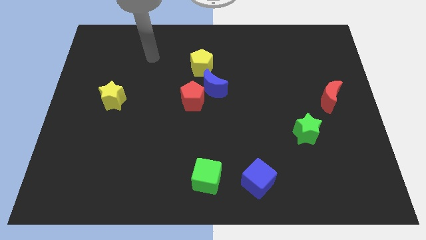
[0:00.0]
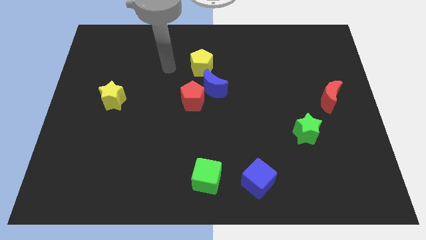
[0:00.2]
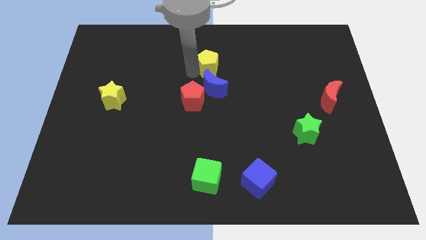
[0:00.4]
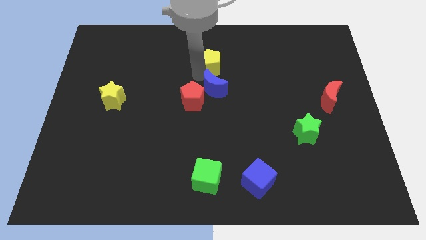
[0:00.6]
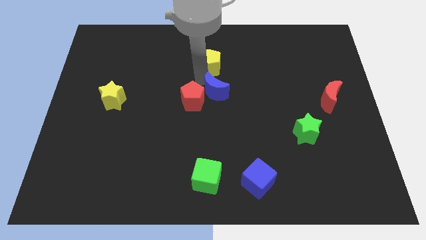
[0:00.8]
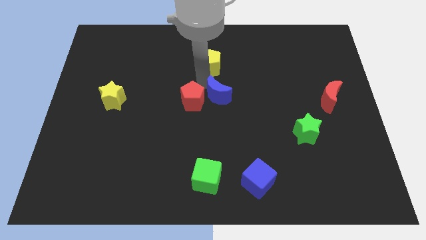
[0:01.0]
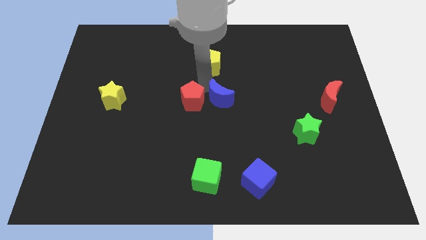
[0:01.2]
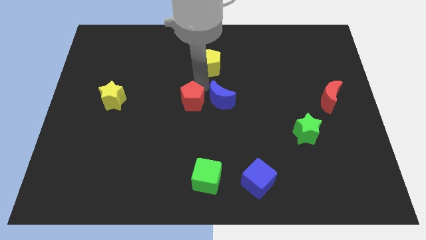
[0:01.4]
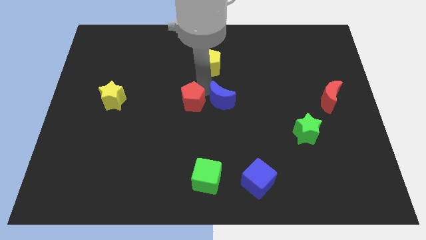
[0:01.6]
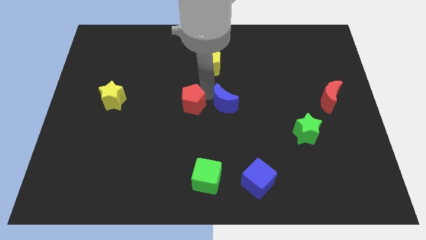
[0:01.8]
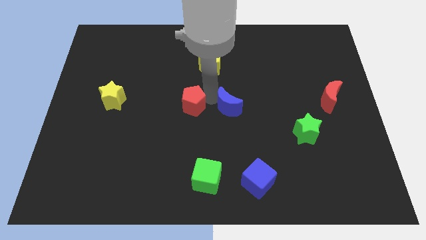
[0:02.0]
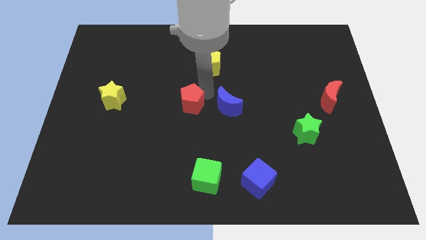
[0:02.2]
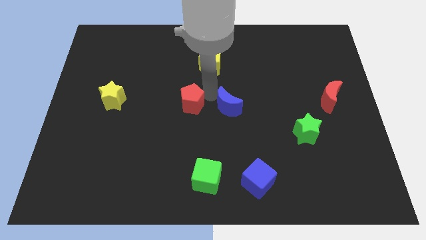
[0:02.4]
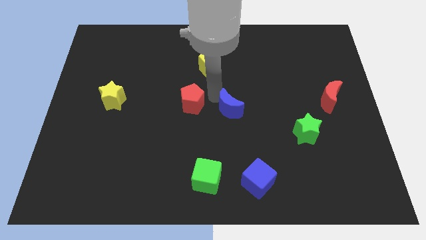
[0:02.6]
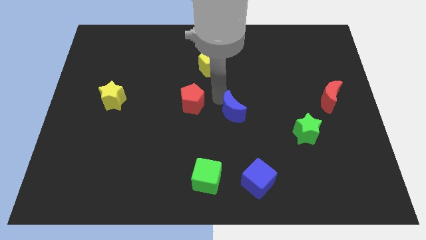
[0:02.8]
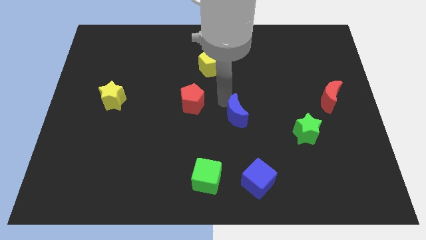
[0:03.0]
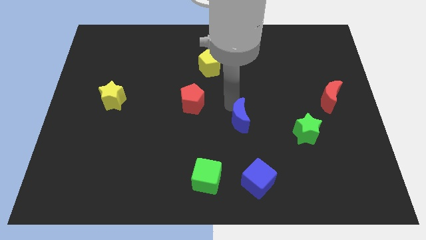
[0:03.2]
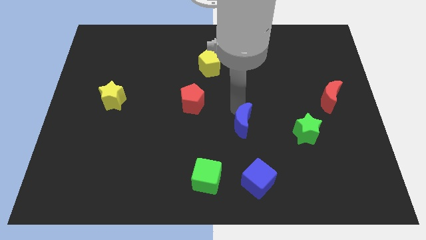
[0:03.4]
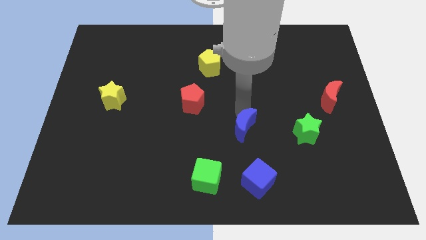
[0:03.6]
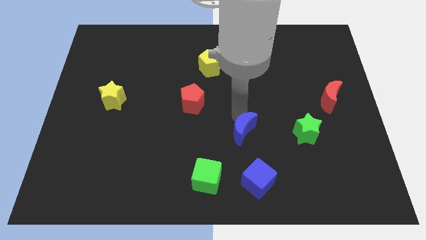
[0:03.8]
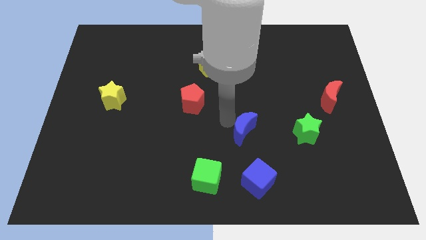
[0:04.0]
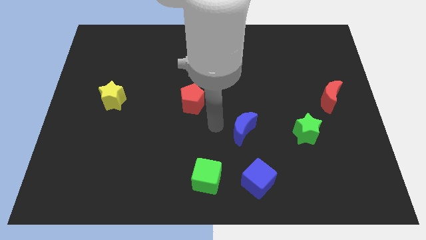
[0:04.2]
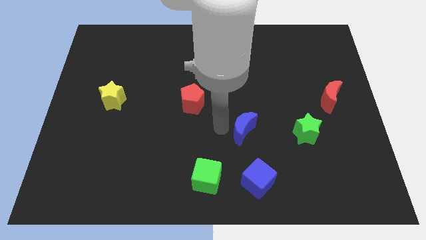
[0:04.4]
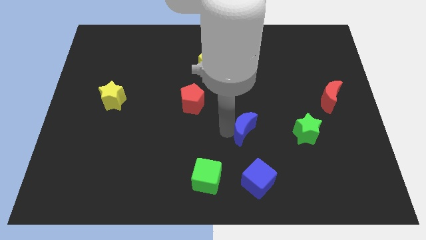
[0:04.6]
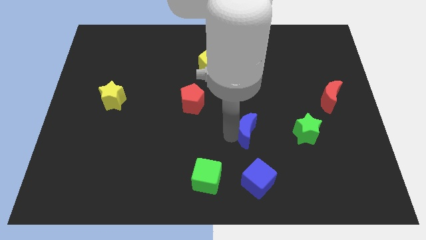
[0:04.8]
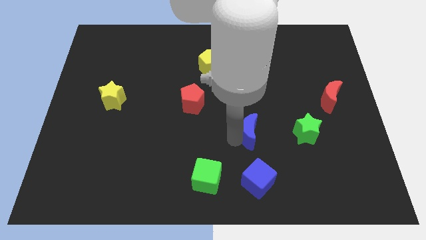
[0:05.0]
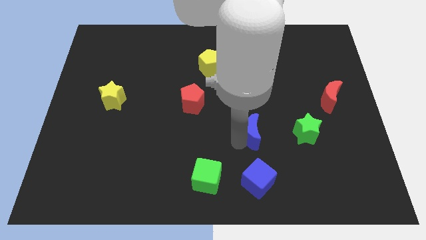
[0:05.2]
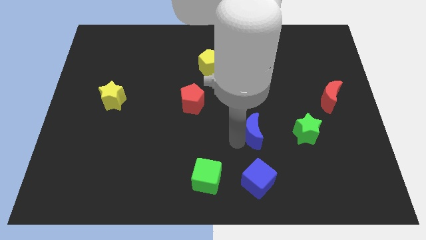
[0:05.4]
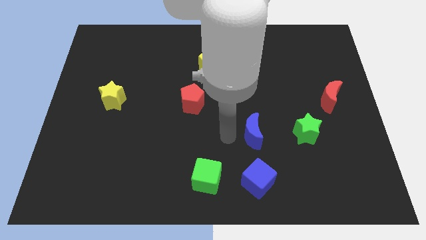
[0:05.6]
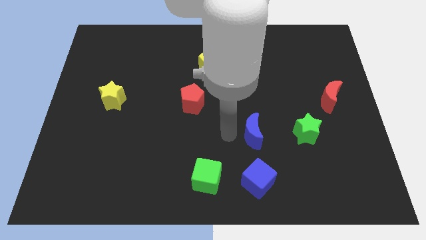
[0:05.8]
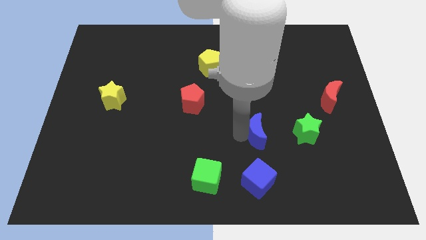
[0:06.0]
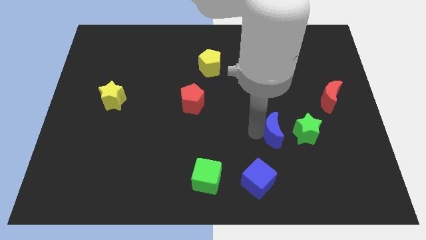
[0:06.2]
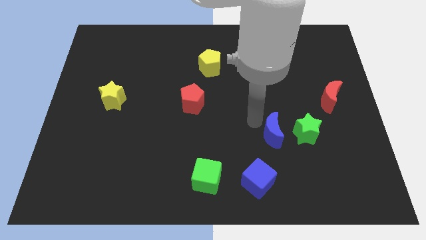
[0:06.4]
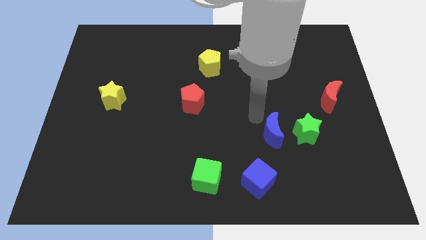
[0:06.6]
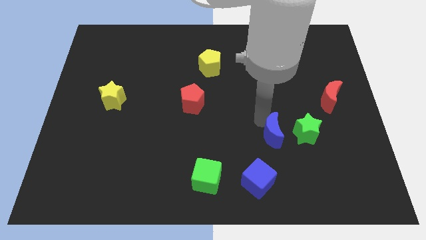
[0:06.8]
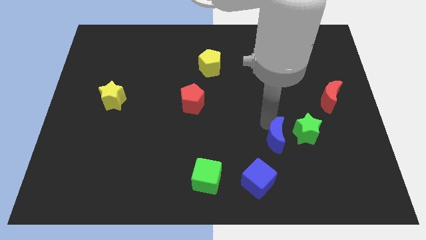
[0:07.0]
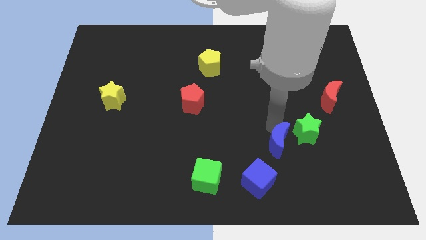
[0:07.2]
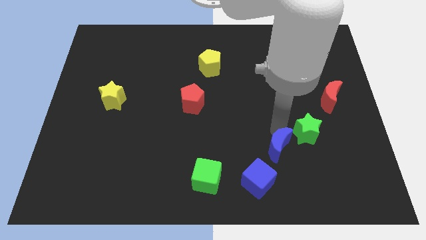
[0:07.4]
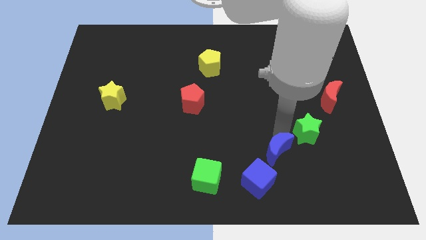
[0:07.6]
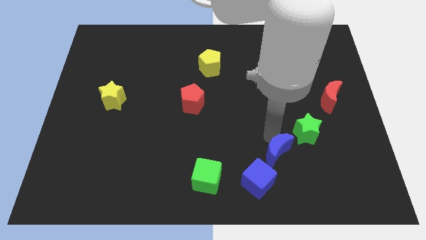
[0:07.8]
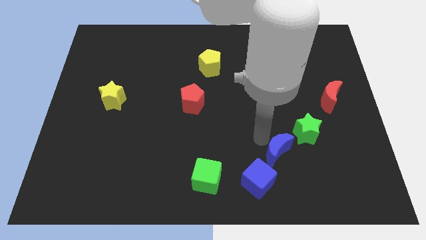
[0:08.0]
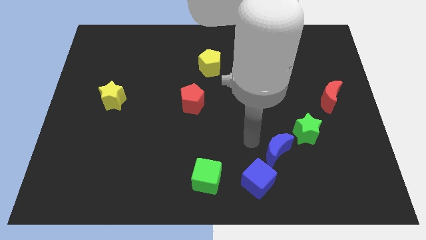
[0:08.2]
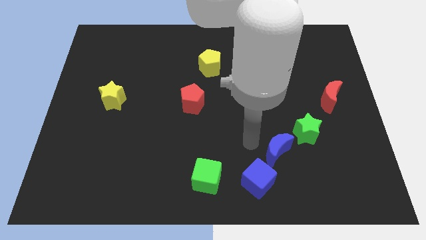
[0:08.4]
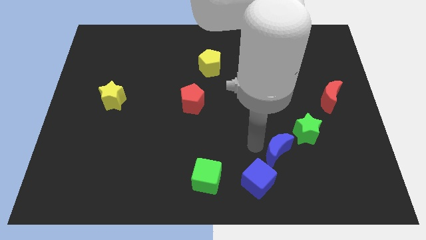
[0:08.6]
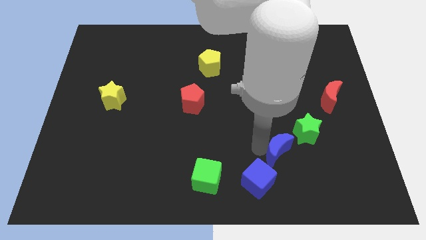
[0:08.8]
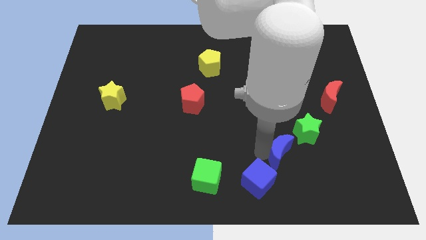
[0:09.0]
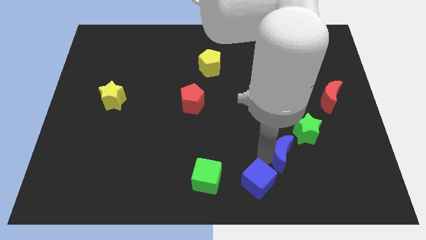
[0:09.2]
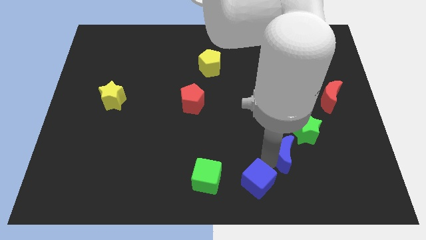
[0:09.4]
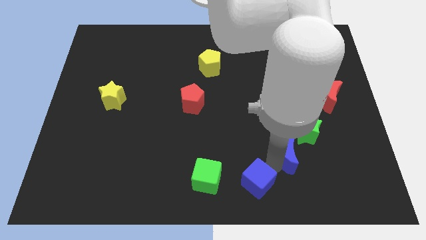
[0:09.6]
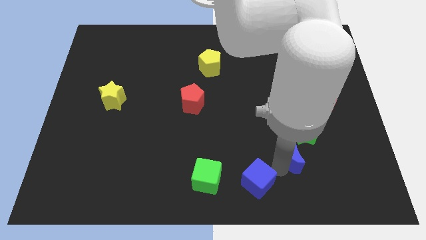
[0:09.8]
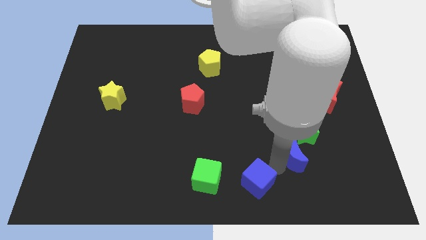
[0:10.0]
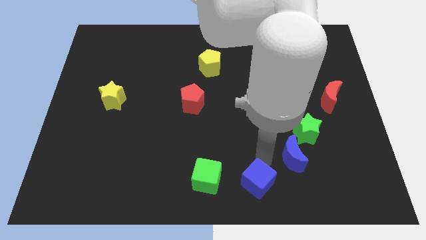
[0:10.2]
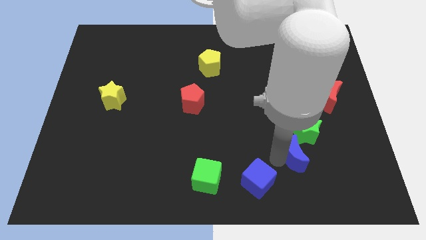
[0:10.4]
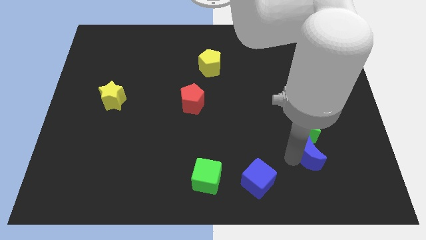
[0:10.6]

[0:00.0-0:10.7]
put the blue moon to the bottom right side of the green star

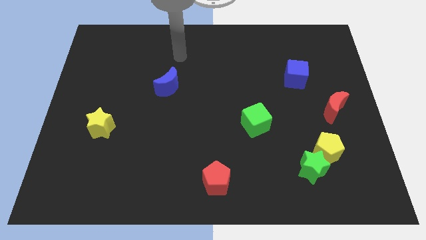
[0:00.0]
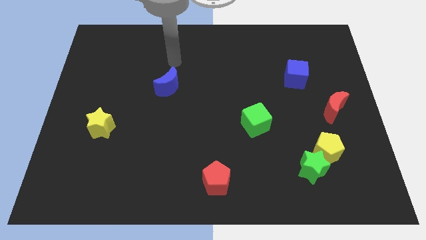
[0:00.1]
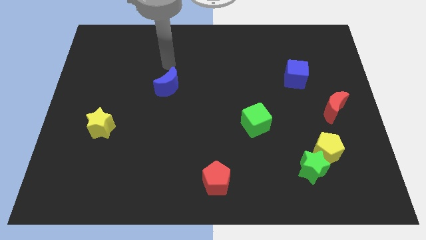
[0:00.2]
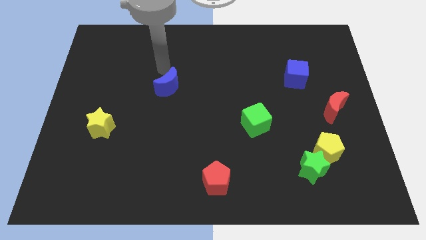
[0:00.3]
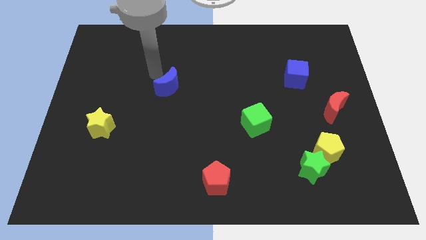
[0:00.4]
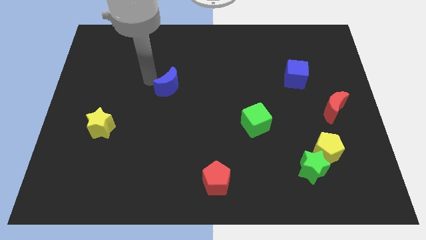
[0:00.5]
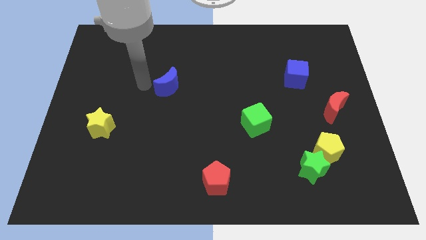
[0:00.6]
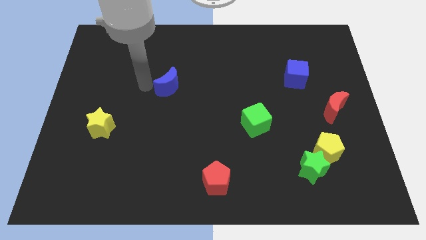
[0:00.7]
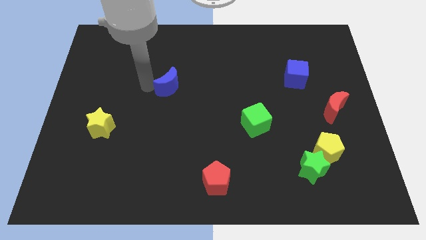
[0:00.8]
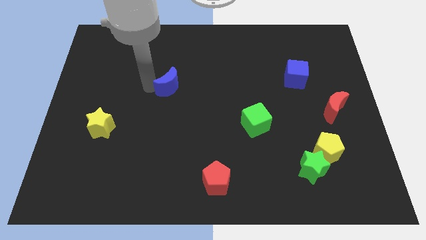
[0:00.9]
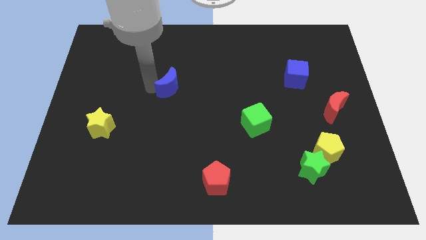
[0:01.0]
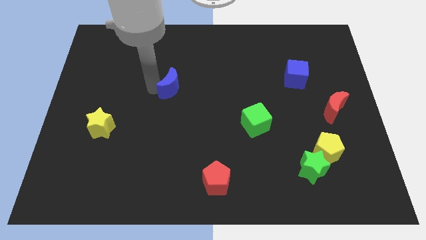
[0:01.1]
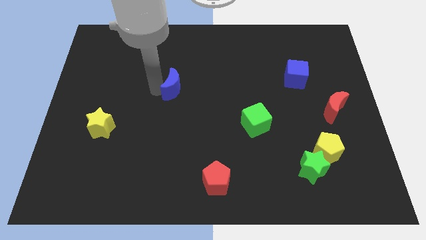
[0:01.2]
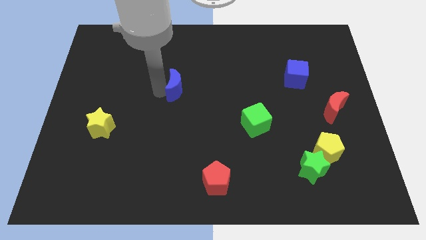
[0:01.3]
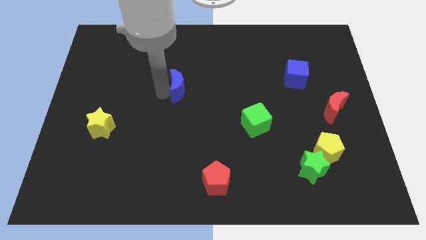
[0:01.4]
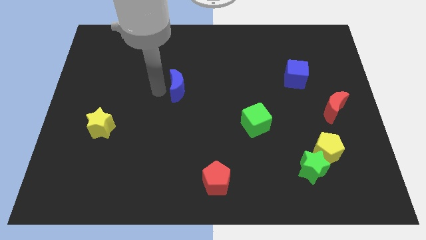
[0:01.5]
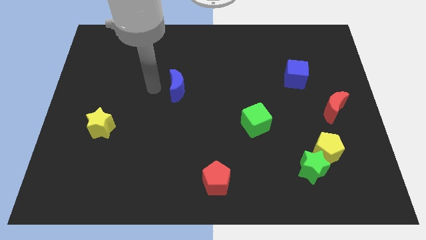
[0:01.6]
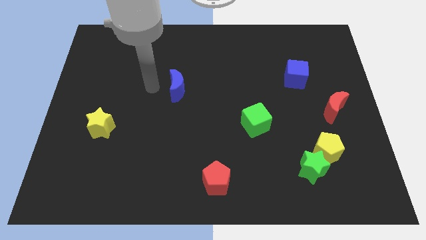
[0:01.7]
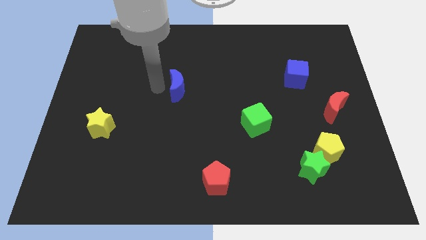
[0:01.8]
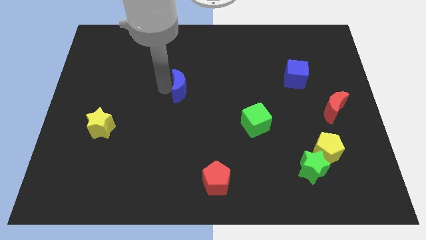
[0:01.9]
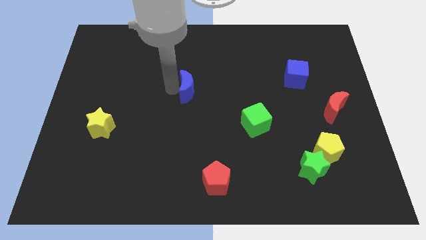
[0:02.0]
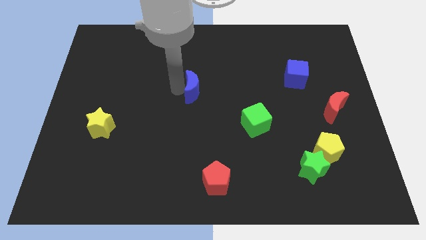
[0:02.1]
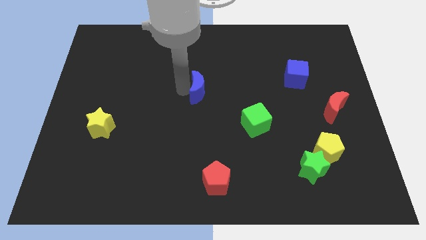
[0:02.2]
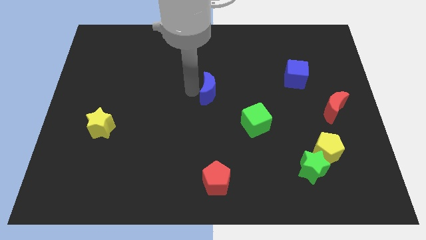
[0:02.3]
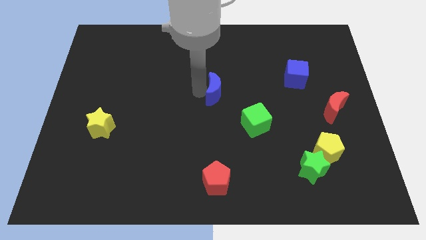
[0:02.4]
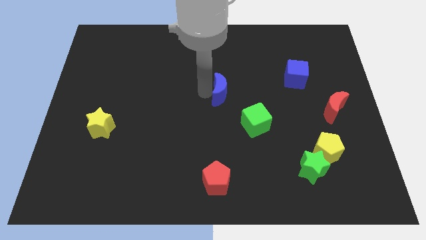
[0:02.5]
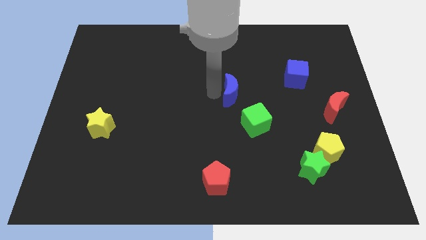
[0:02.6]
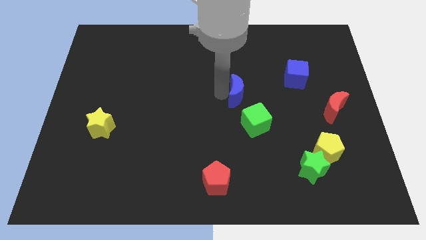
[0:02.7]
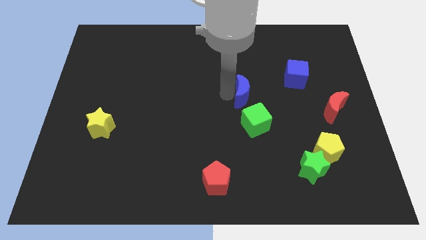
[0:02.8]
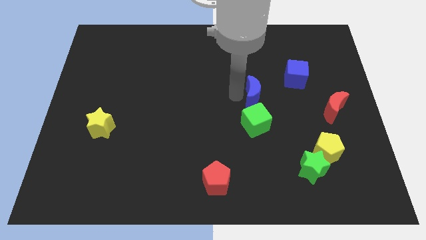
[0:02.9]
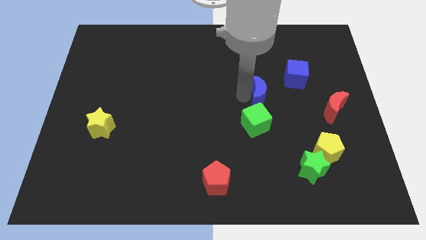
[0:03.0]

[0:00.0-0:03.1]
push the blue moon to the bottom left side of the blue cube
